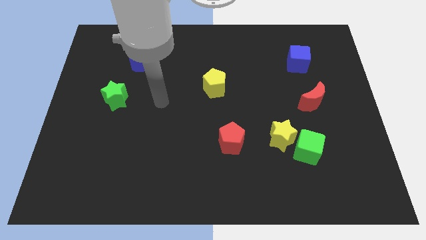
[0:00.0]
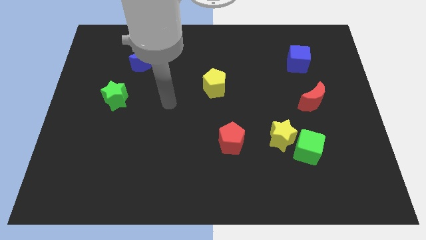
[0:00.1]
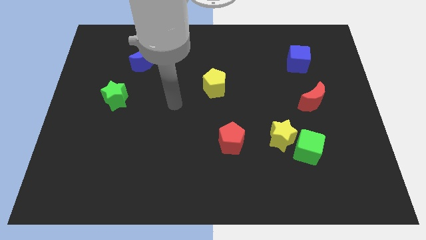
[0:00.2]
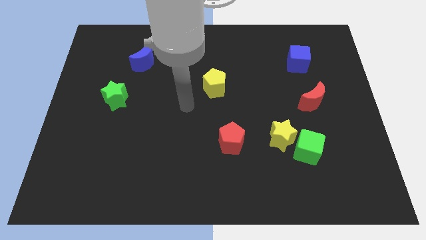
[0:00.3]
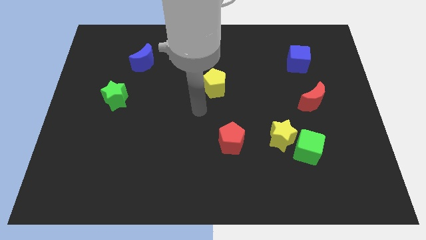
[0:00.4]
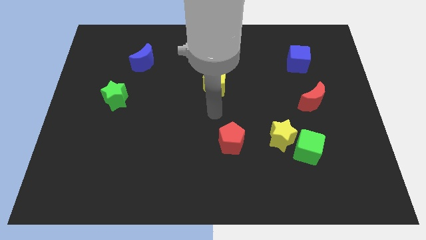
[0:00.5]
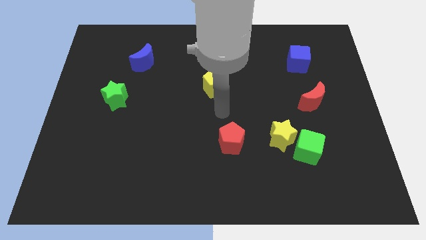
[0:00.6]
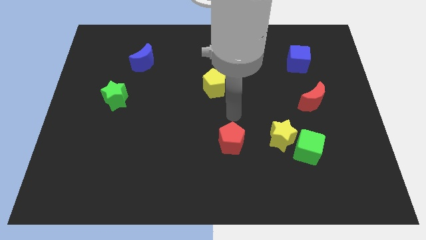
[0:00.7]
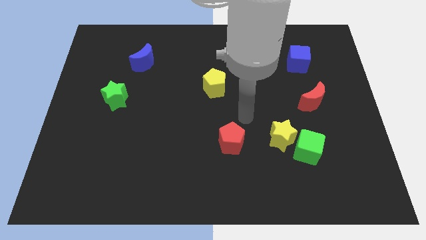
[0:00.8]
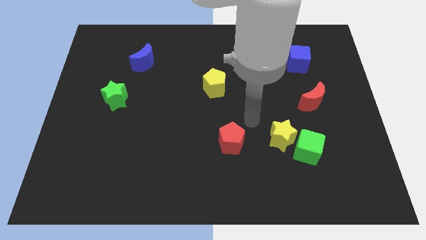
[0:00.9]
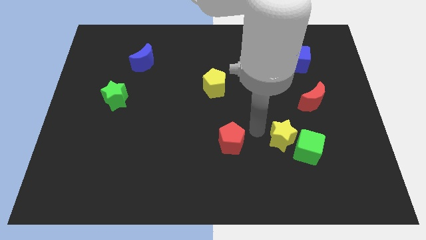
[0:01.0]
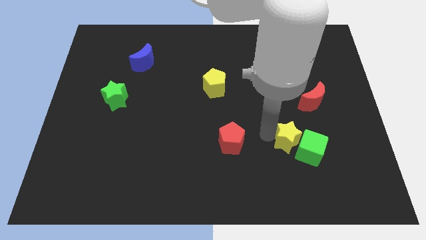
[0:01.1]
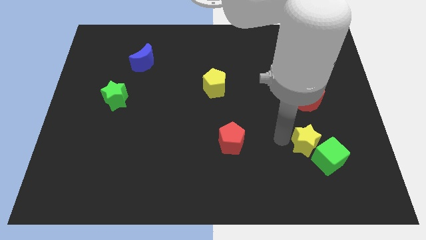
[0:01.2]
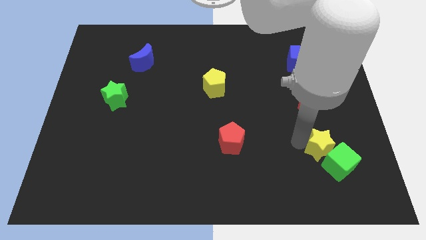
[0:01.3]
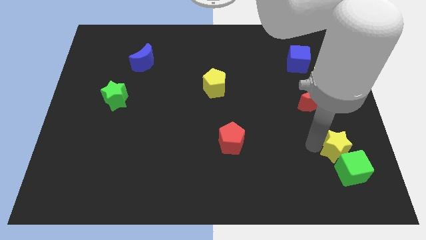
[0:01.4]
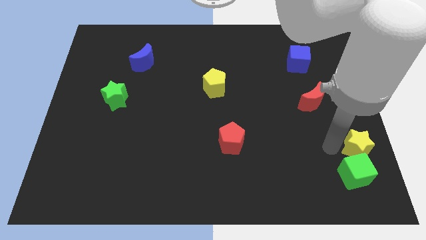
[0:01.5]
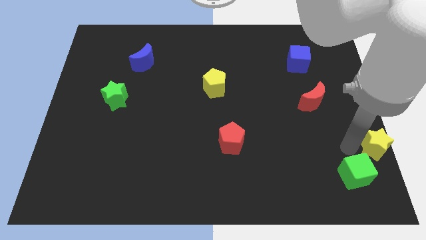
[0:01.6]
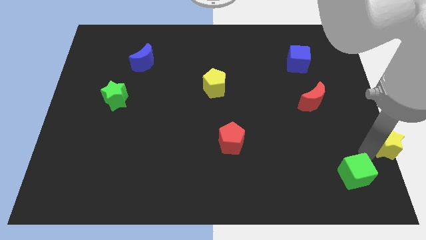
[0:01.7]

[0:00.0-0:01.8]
move the green cube away from the yellow star

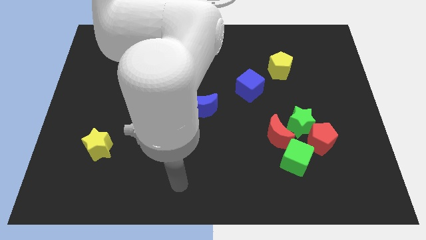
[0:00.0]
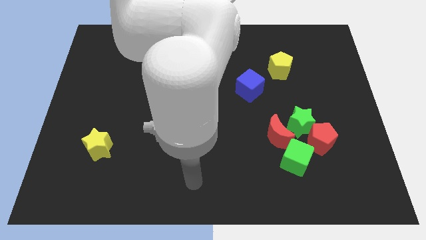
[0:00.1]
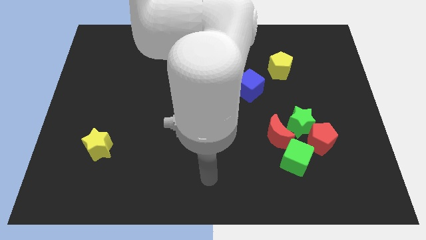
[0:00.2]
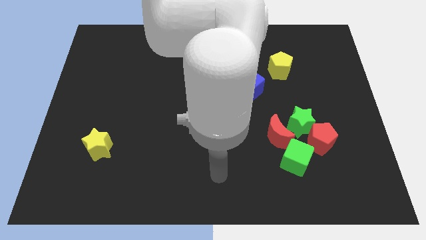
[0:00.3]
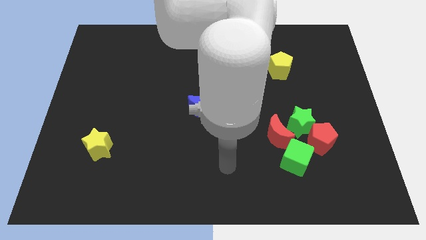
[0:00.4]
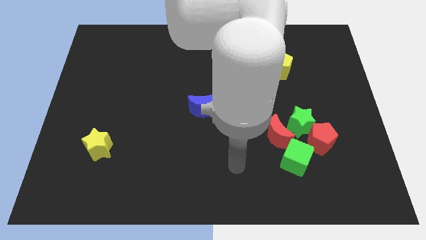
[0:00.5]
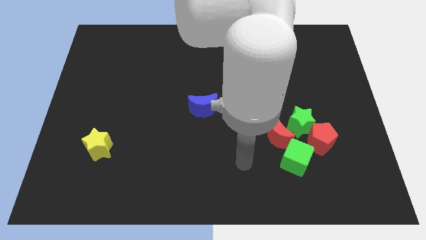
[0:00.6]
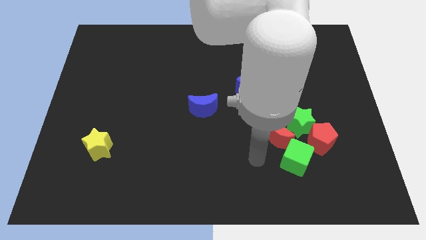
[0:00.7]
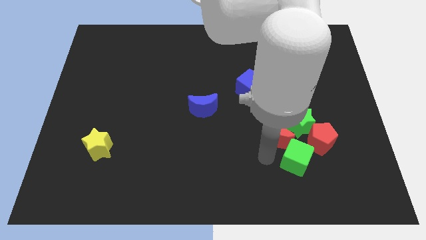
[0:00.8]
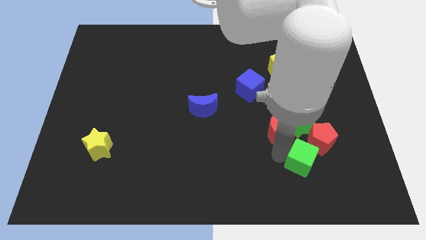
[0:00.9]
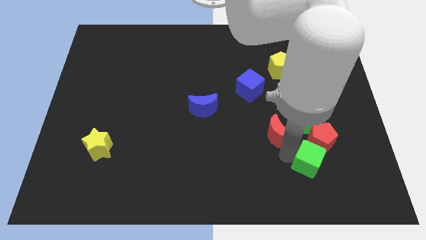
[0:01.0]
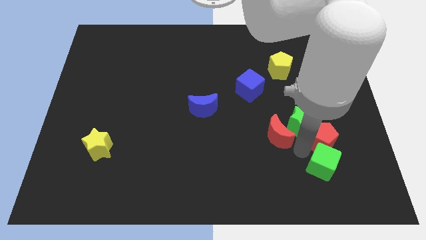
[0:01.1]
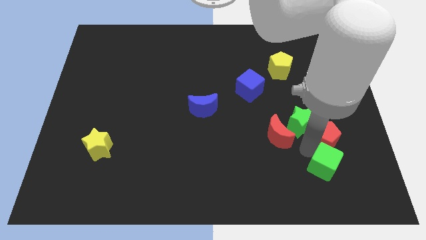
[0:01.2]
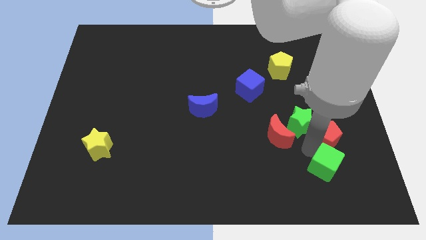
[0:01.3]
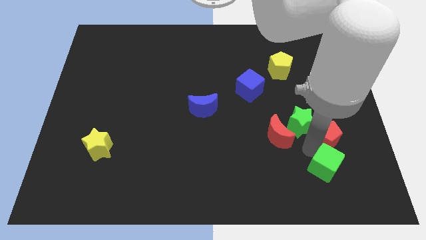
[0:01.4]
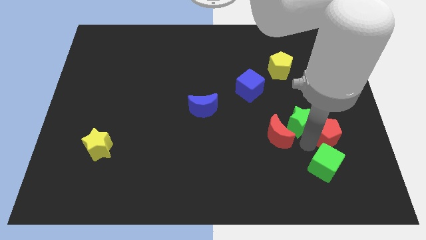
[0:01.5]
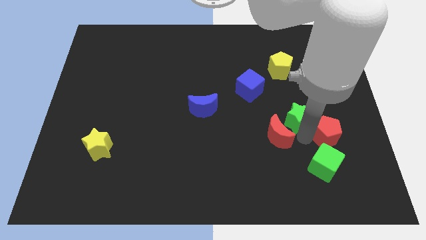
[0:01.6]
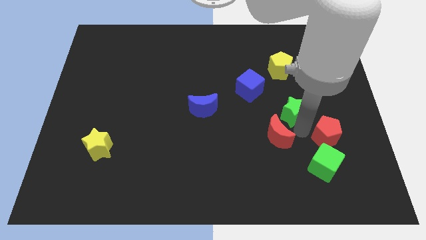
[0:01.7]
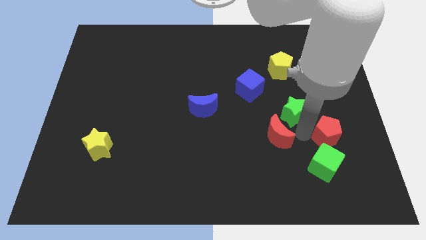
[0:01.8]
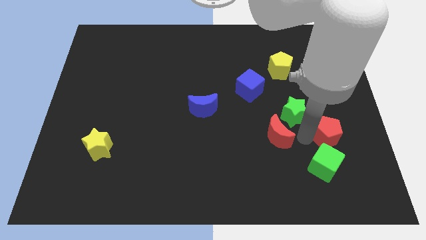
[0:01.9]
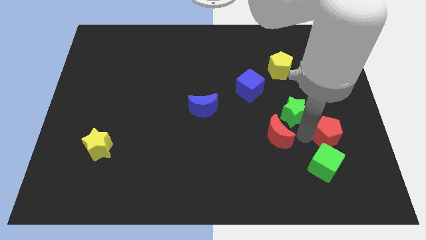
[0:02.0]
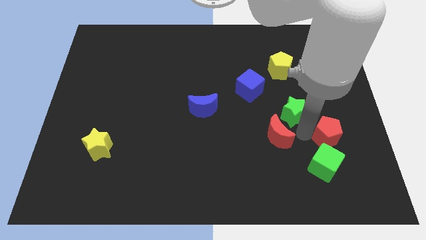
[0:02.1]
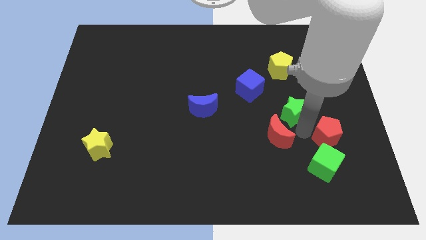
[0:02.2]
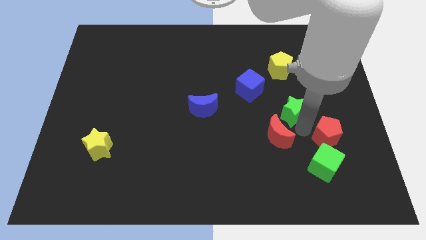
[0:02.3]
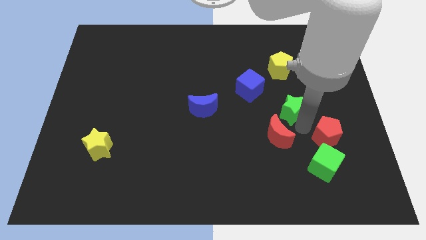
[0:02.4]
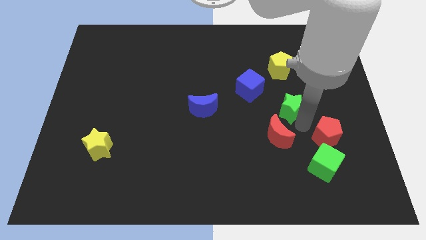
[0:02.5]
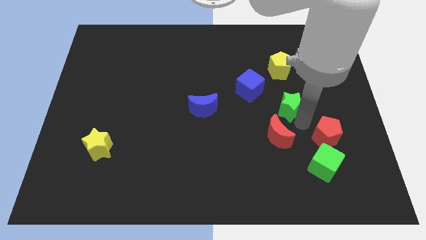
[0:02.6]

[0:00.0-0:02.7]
pull the green star apart from the group of blocks

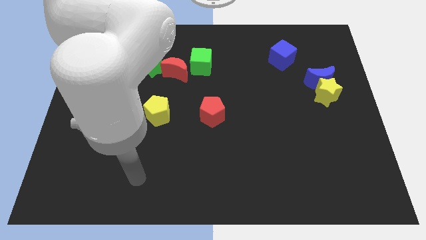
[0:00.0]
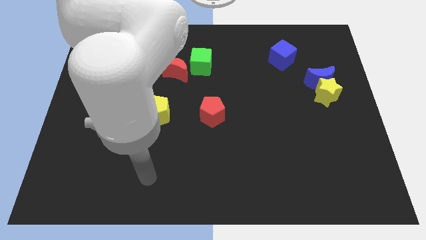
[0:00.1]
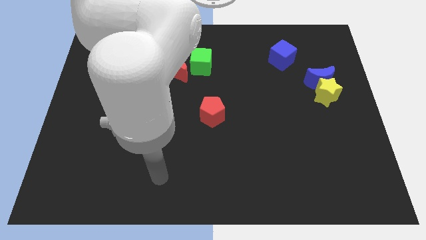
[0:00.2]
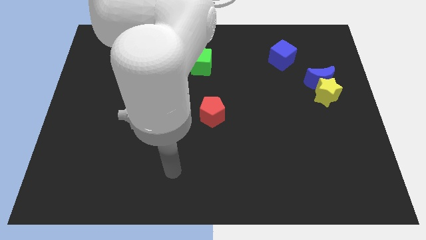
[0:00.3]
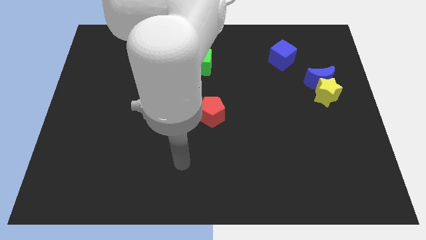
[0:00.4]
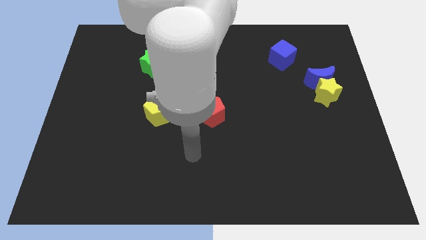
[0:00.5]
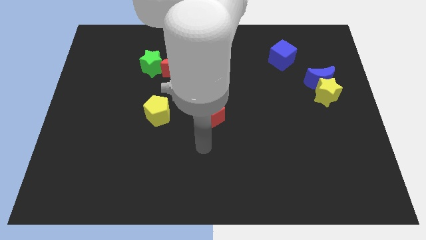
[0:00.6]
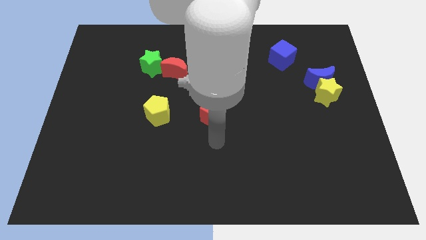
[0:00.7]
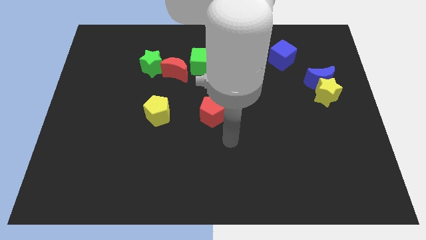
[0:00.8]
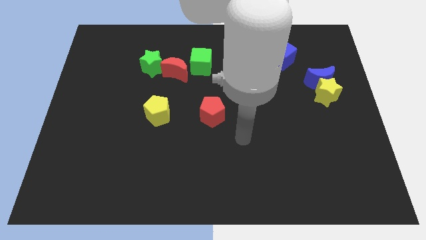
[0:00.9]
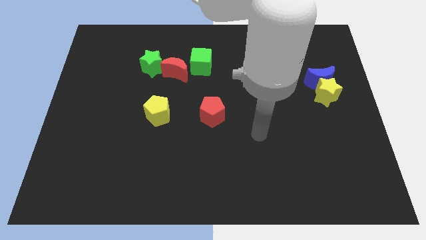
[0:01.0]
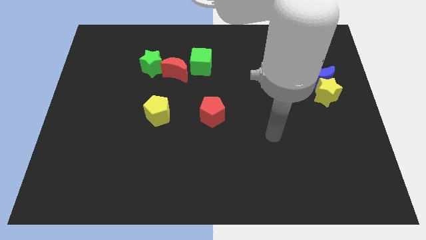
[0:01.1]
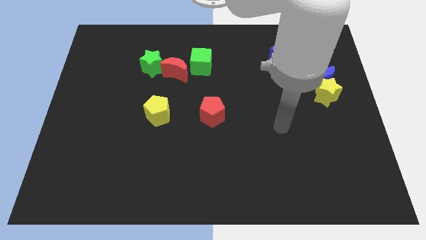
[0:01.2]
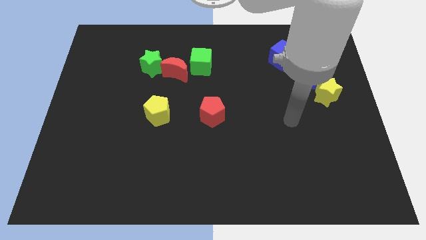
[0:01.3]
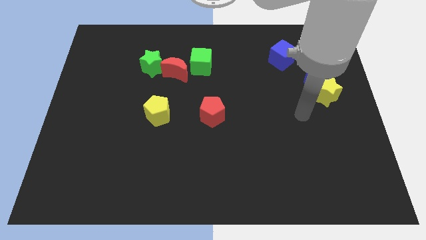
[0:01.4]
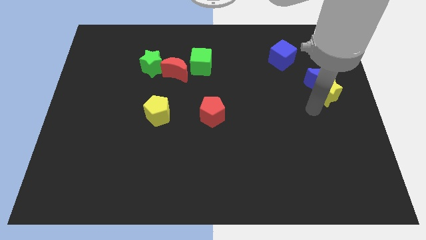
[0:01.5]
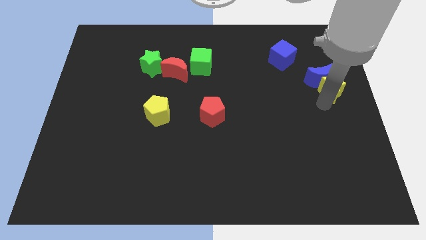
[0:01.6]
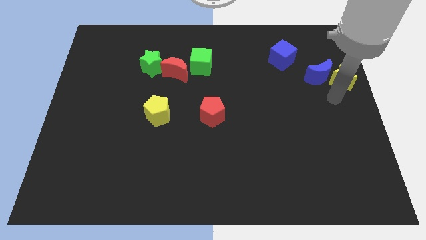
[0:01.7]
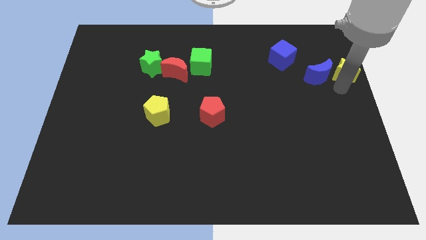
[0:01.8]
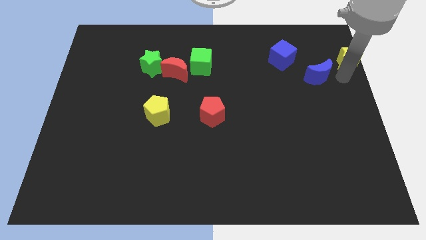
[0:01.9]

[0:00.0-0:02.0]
move the blue moon away from the yellow star

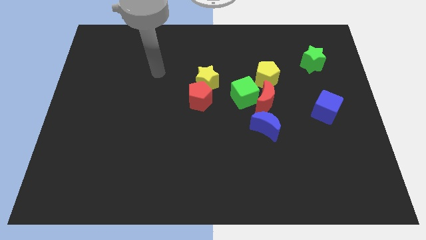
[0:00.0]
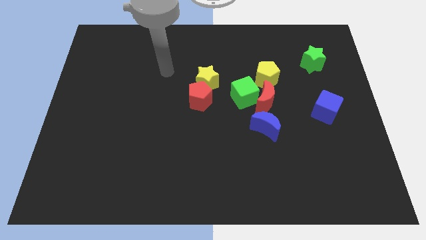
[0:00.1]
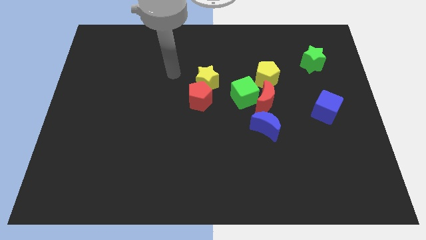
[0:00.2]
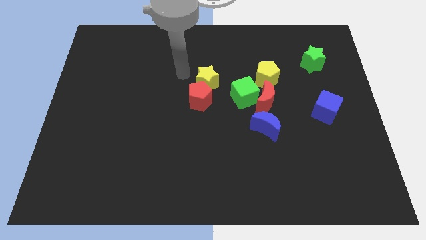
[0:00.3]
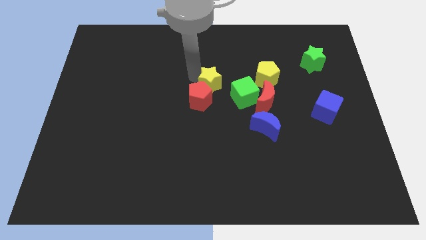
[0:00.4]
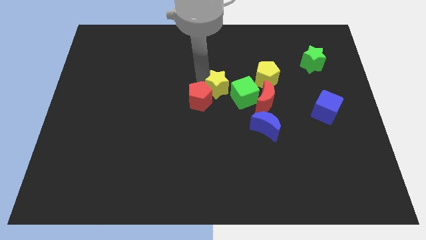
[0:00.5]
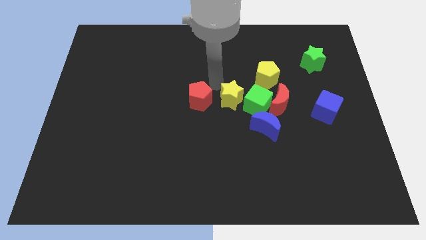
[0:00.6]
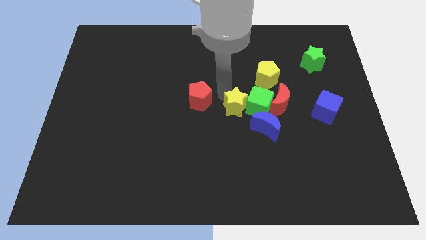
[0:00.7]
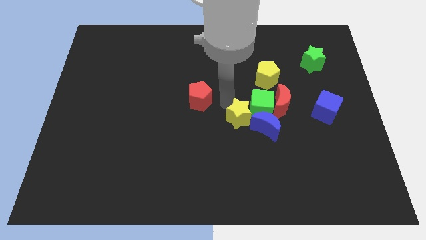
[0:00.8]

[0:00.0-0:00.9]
pull the red pentagon apart from the yellow star

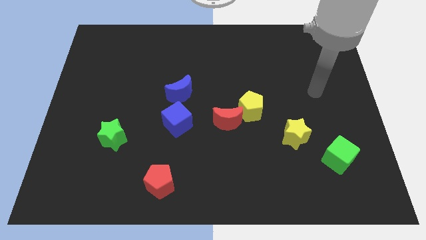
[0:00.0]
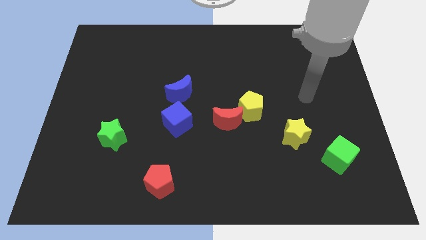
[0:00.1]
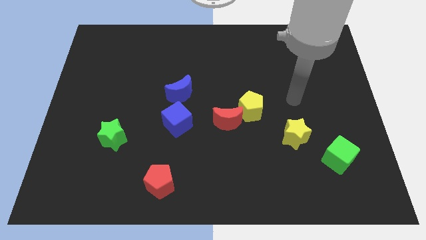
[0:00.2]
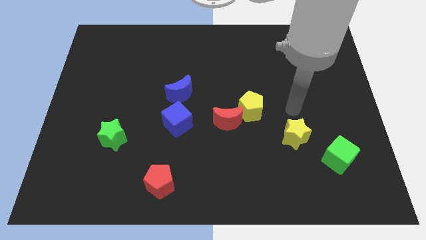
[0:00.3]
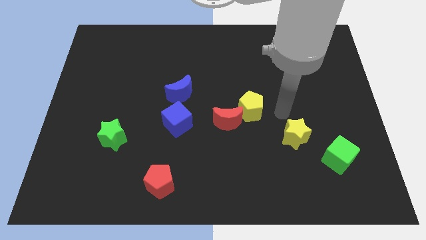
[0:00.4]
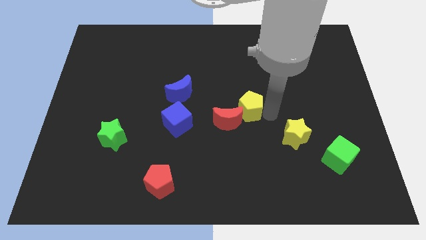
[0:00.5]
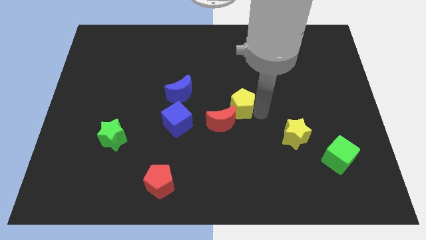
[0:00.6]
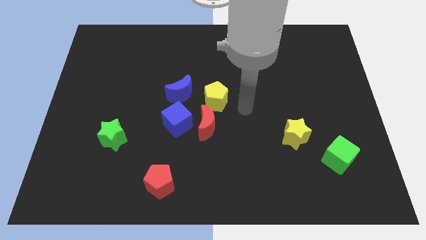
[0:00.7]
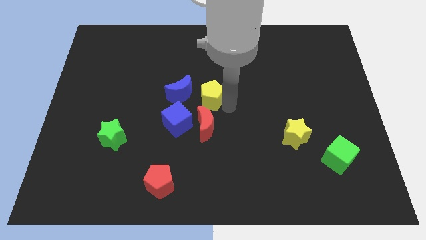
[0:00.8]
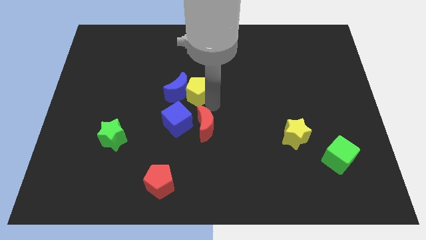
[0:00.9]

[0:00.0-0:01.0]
move the red moon away from the yellow pentagon

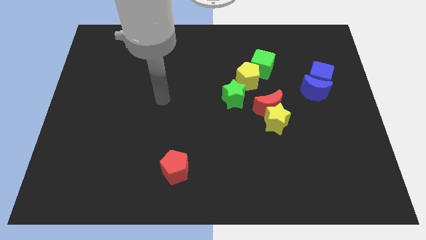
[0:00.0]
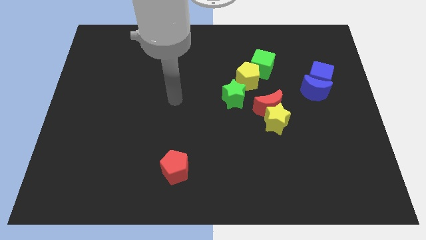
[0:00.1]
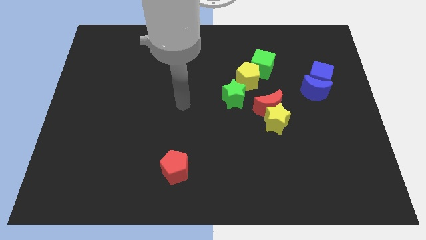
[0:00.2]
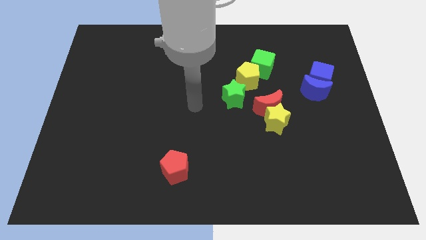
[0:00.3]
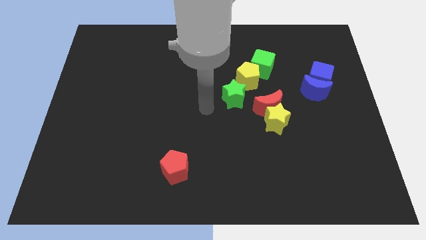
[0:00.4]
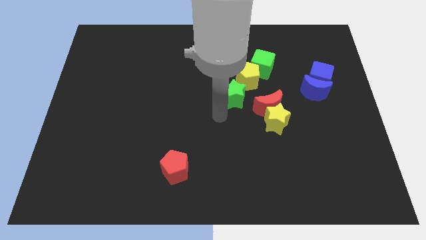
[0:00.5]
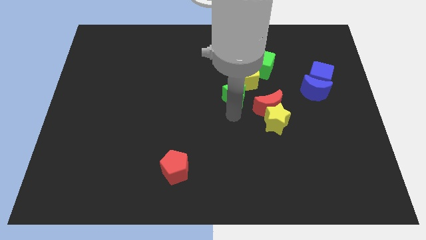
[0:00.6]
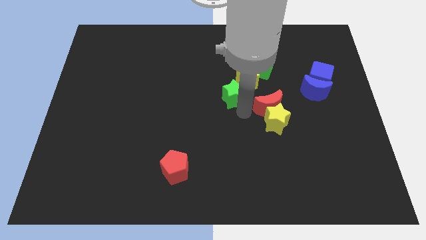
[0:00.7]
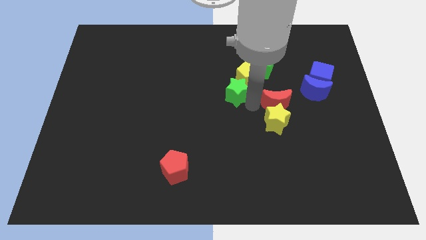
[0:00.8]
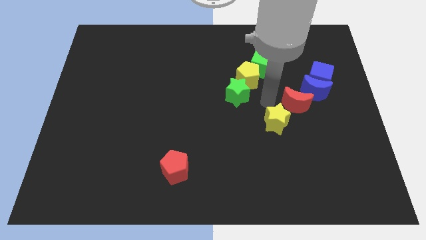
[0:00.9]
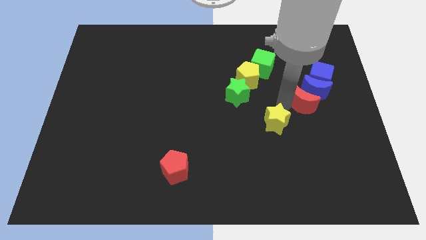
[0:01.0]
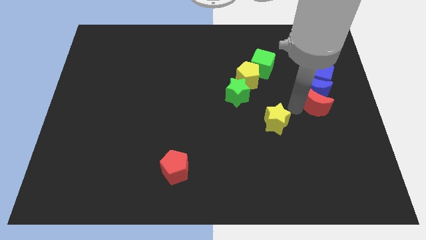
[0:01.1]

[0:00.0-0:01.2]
move the yellow star away from the red moon
